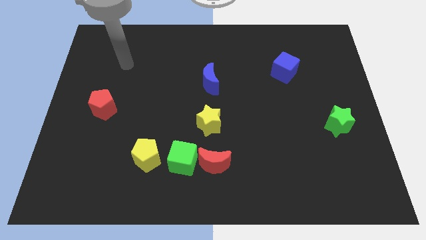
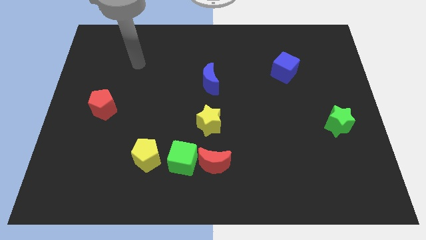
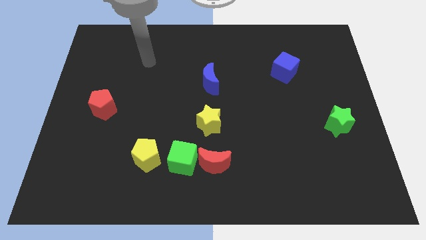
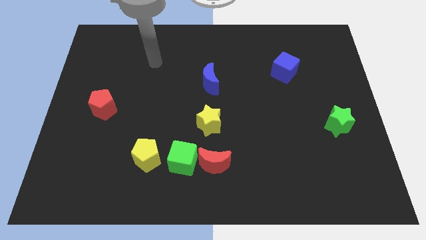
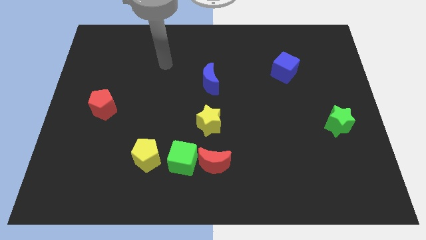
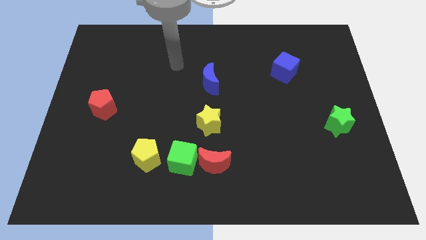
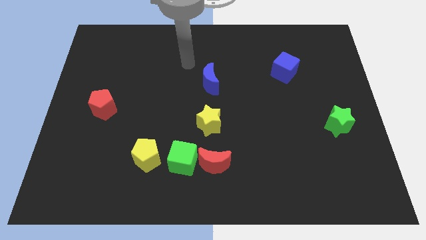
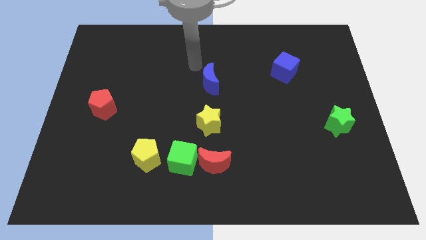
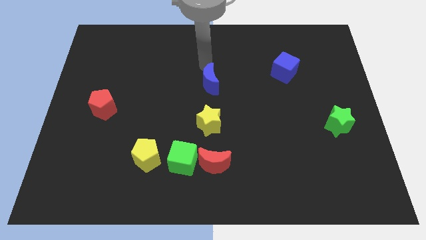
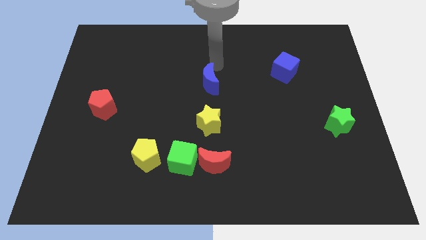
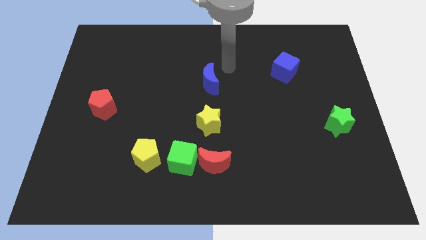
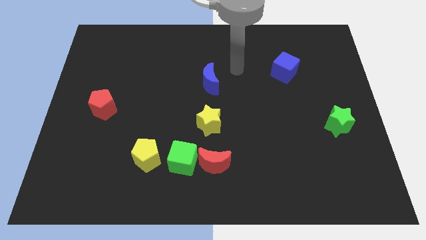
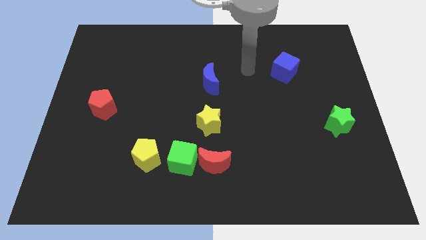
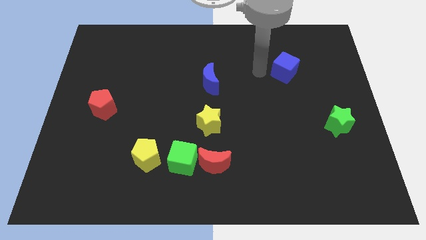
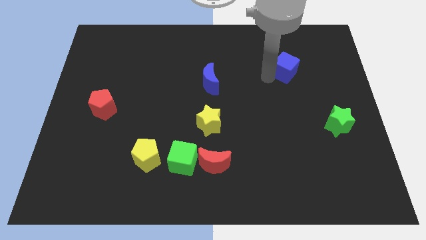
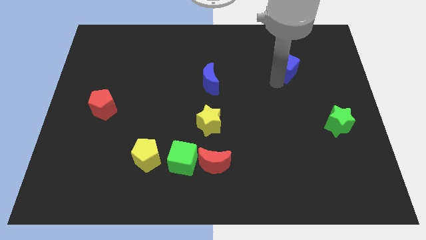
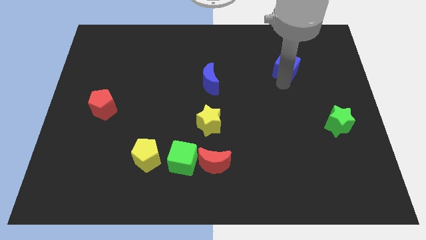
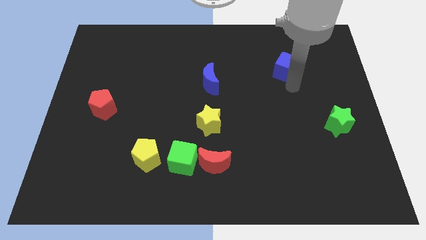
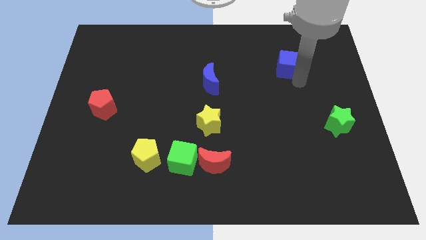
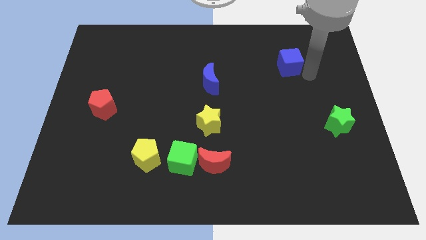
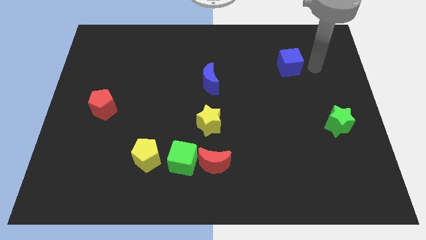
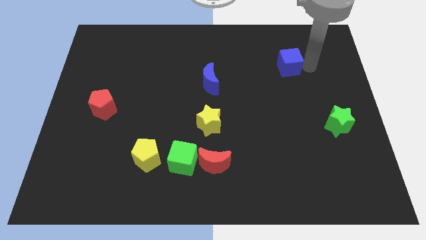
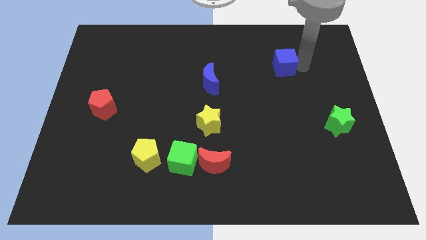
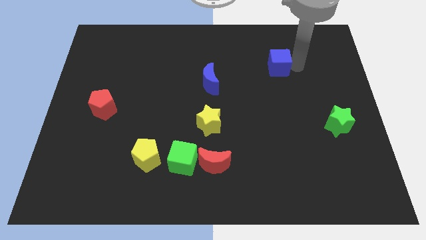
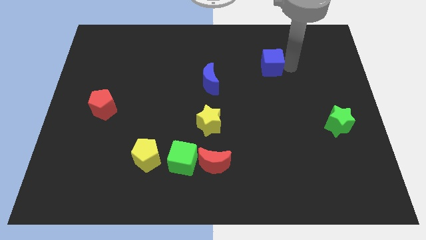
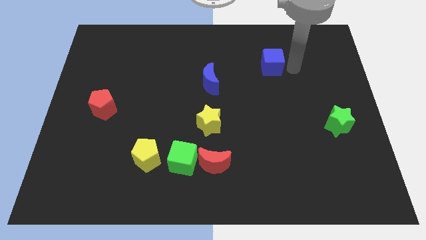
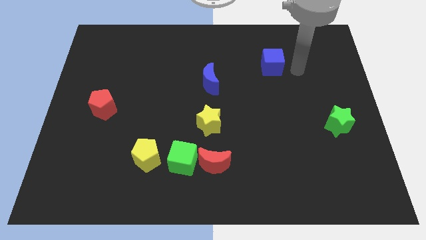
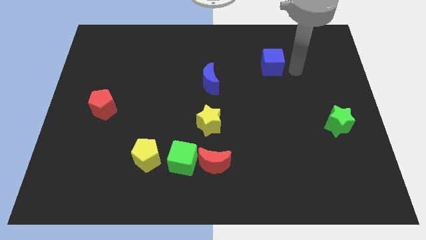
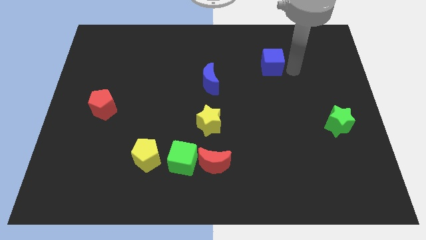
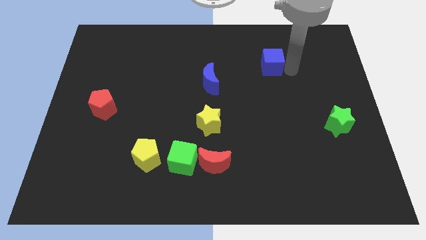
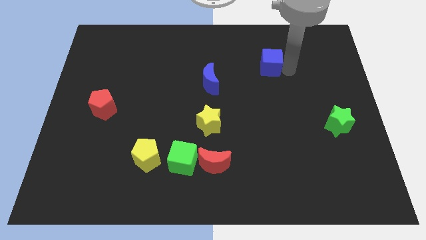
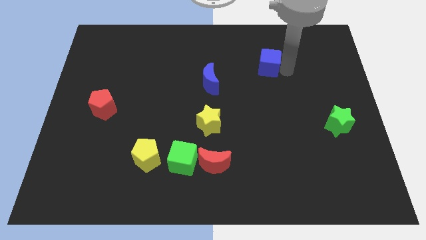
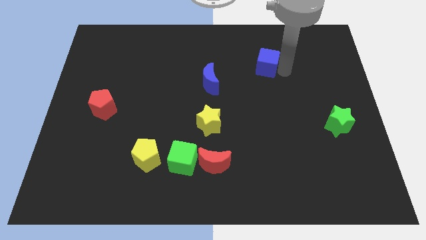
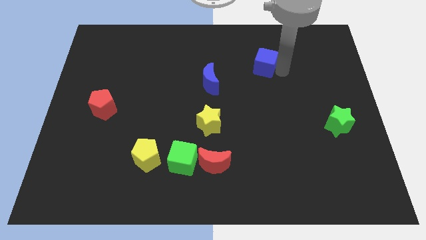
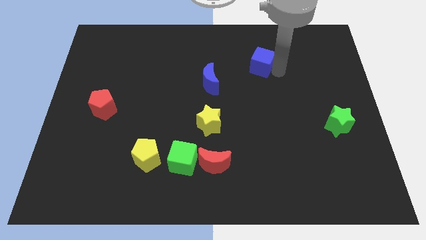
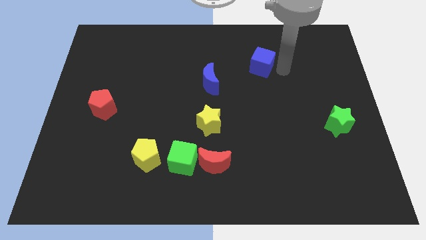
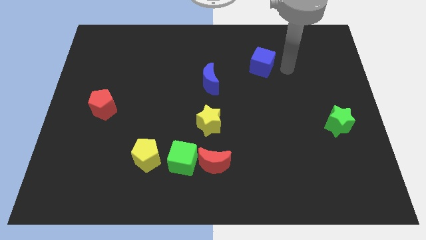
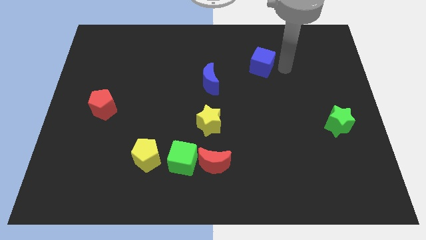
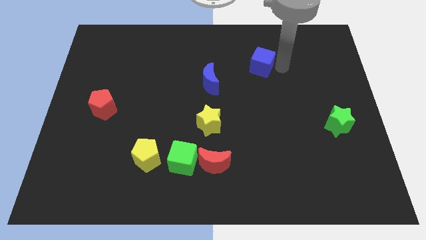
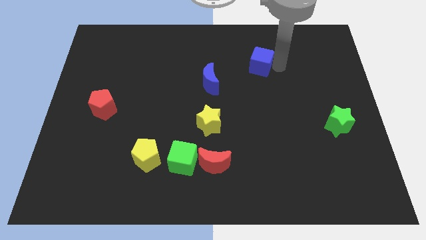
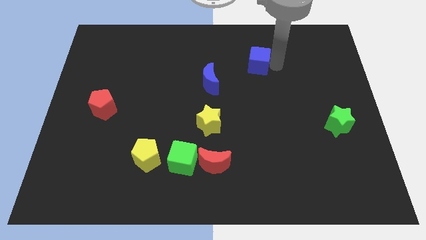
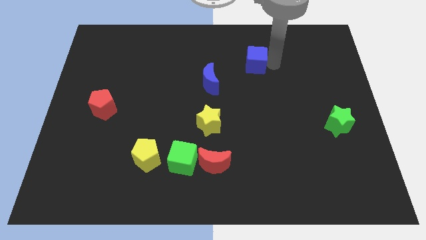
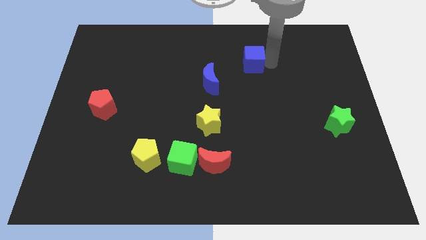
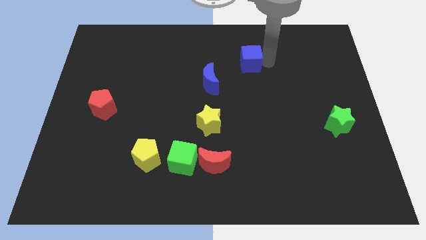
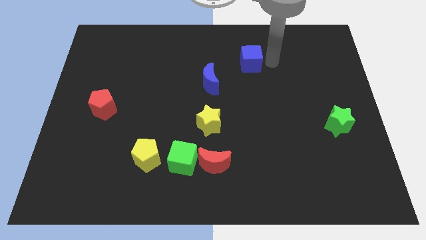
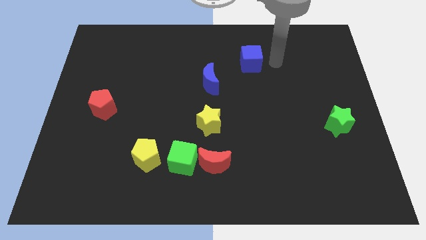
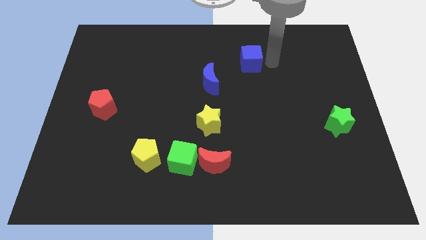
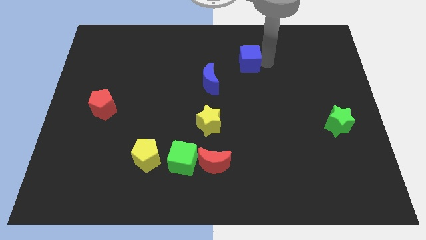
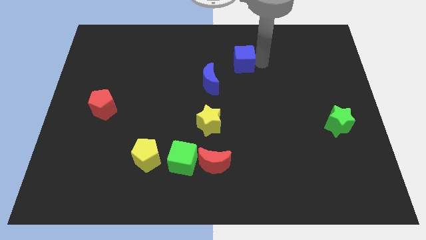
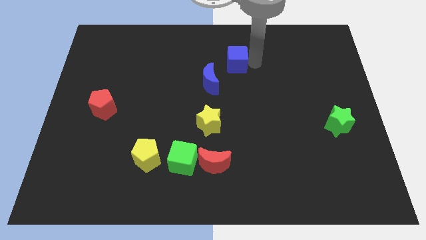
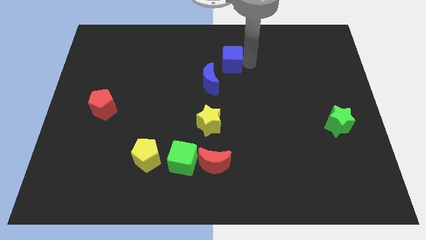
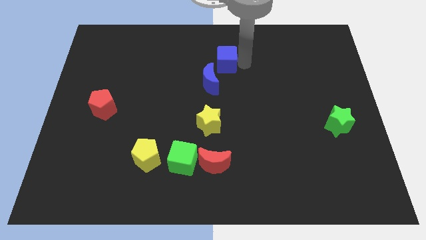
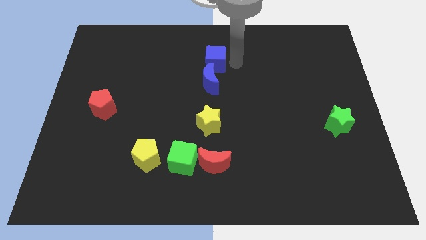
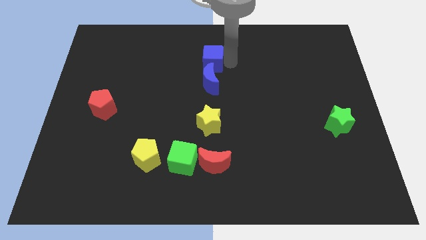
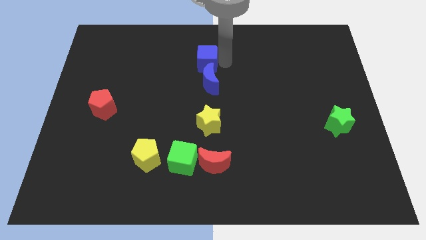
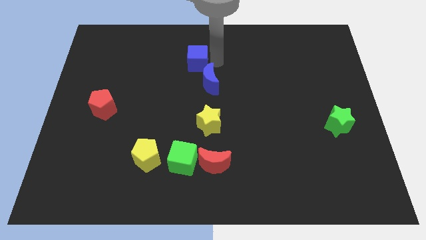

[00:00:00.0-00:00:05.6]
move the blue cube left

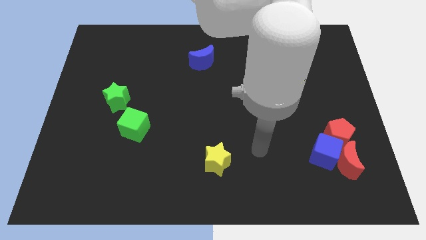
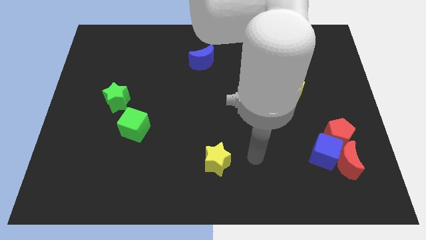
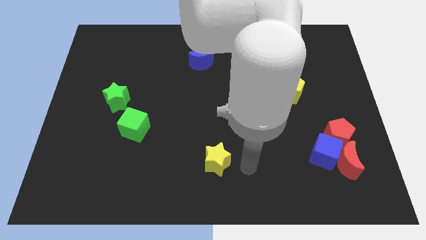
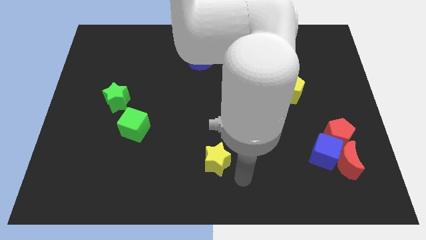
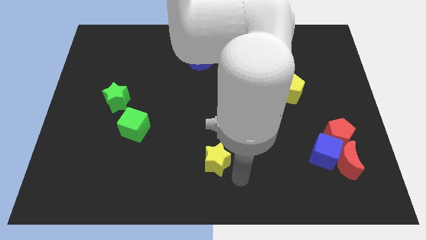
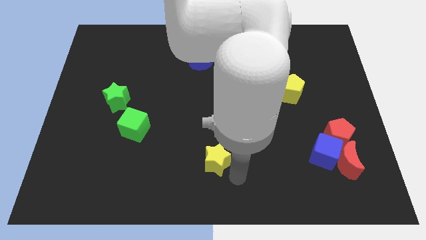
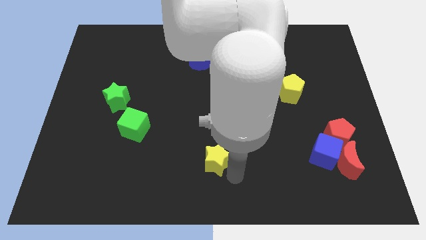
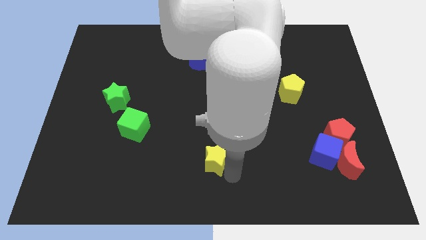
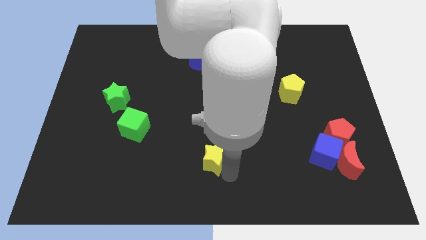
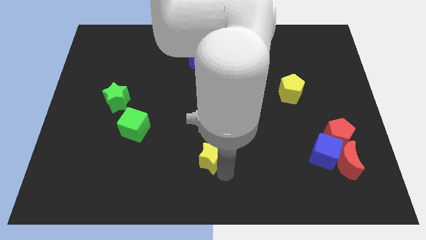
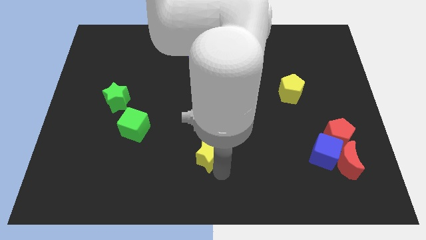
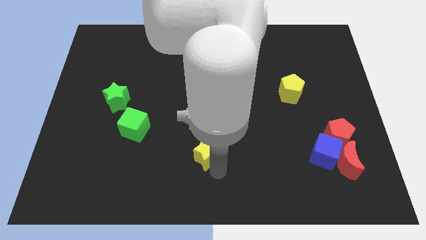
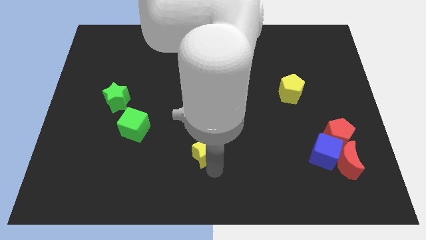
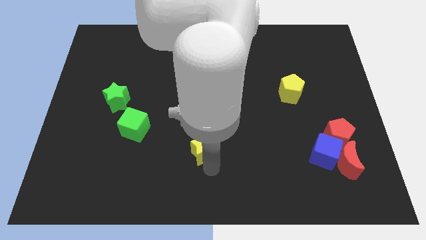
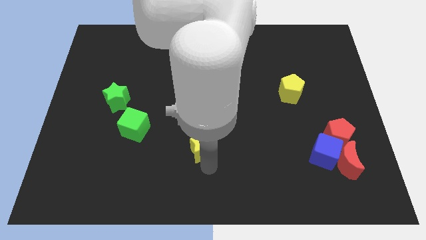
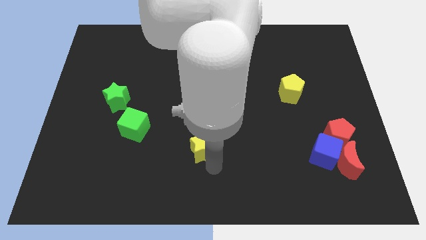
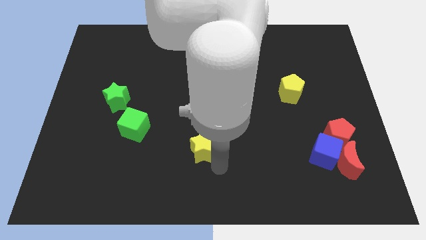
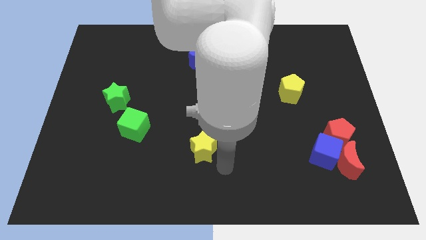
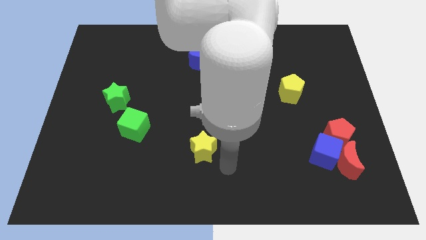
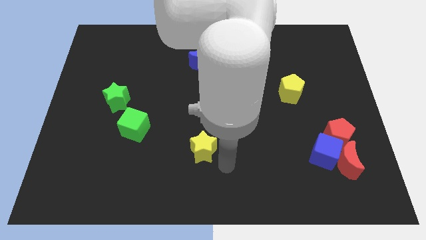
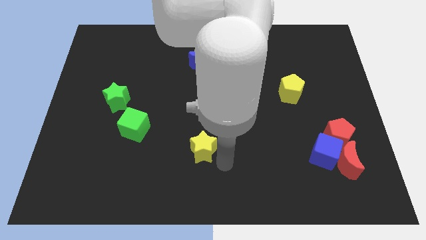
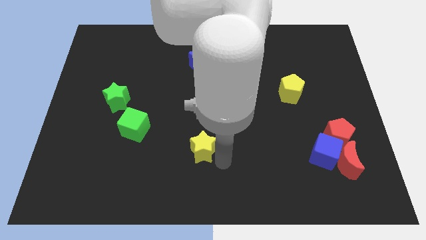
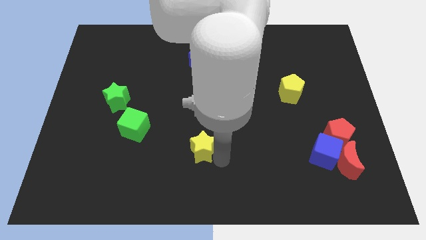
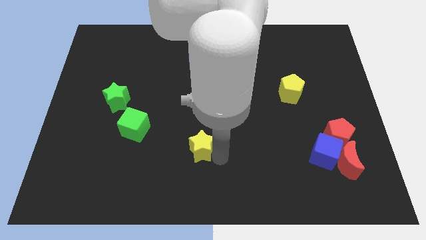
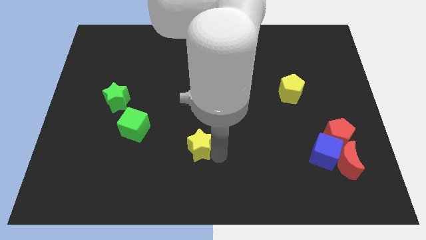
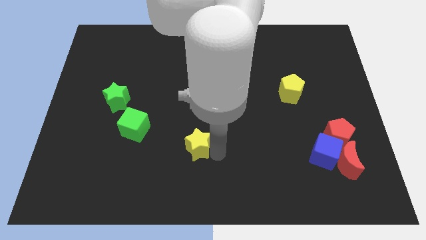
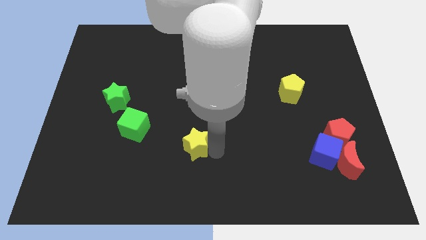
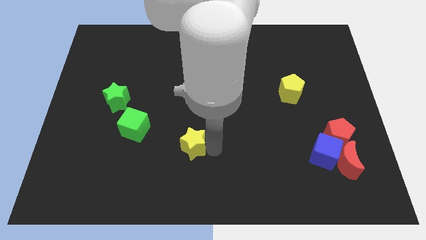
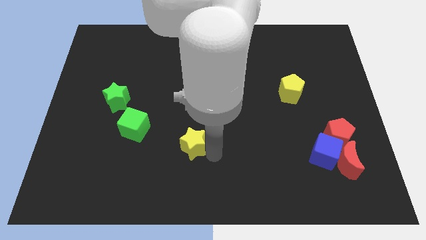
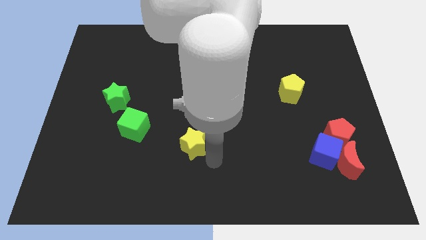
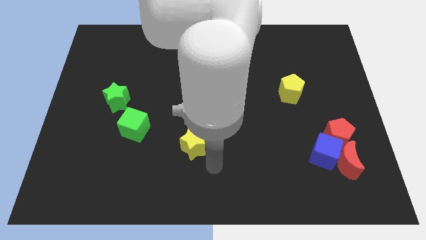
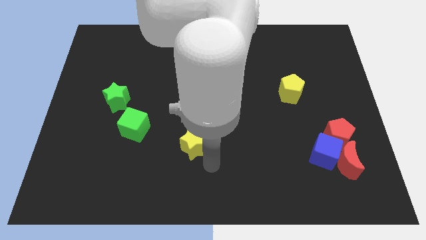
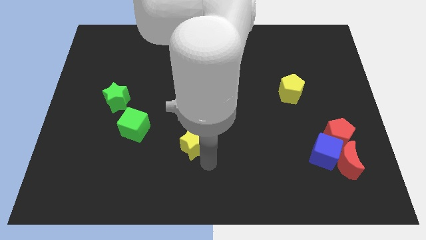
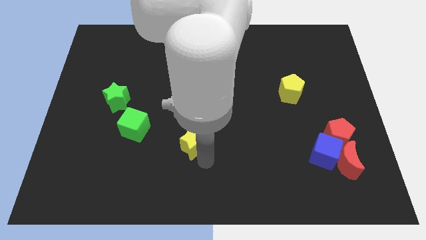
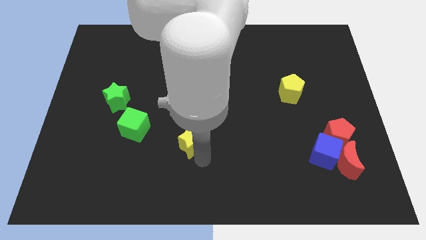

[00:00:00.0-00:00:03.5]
move the yellow star slightly upwards and left
